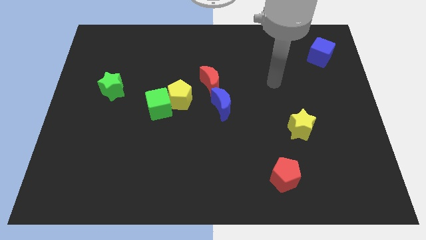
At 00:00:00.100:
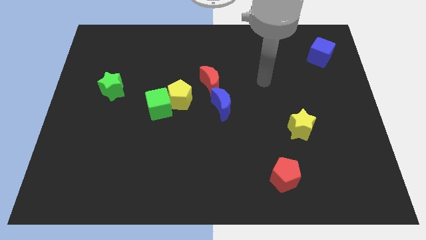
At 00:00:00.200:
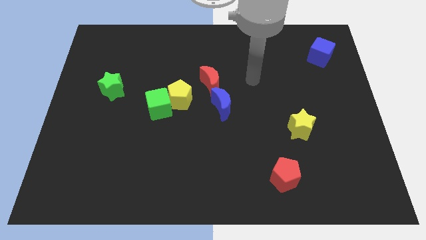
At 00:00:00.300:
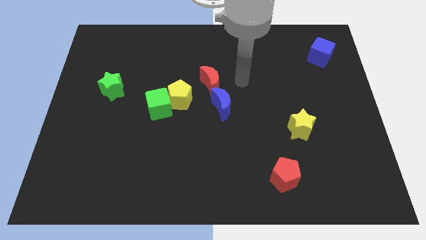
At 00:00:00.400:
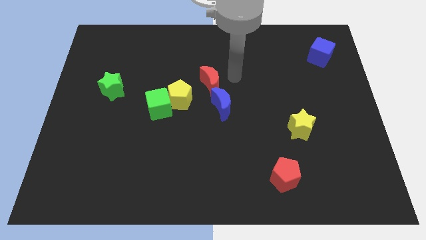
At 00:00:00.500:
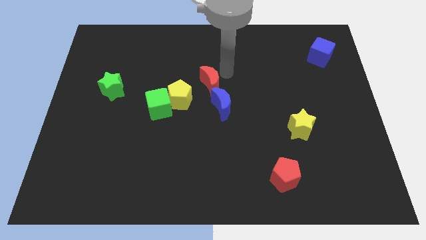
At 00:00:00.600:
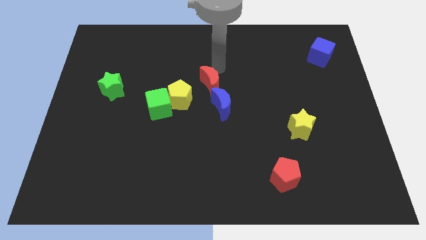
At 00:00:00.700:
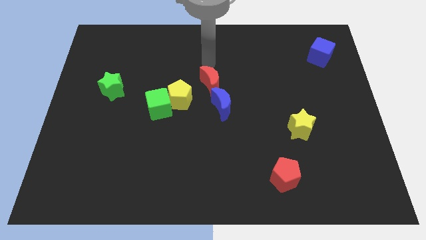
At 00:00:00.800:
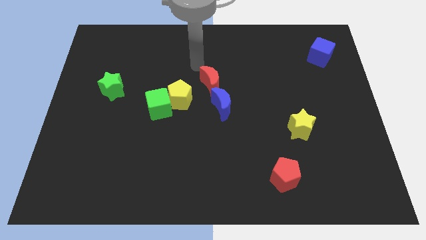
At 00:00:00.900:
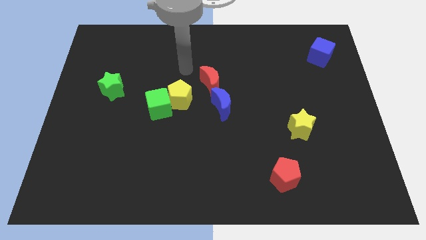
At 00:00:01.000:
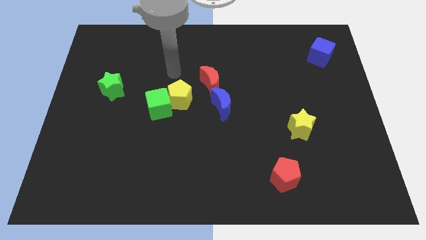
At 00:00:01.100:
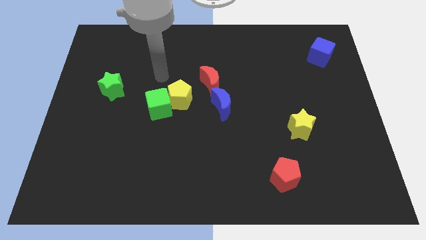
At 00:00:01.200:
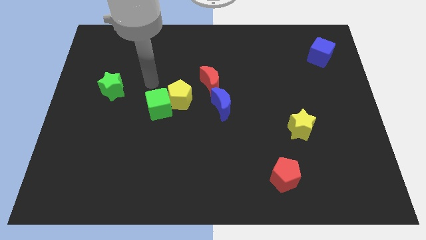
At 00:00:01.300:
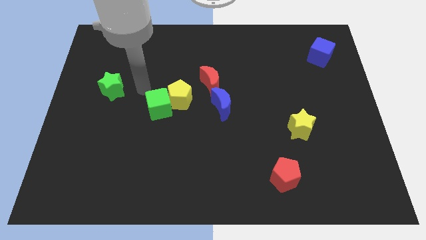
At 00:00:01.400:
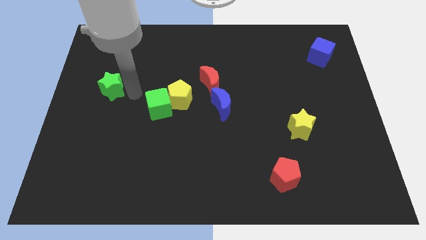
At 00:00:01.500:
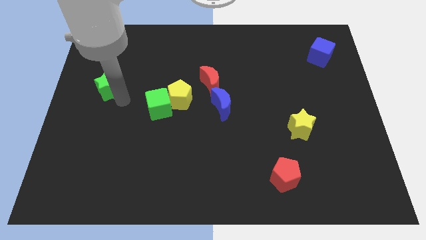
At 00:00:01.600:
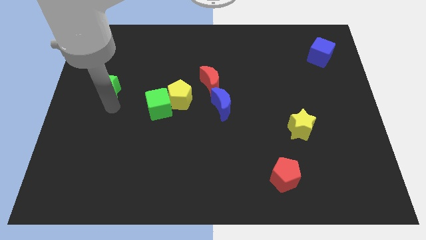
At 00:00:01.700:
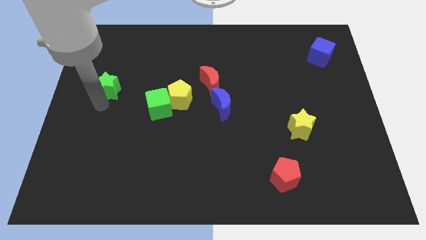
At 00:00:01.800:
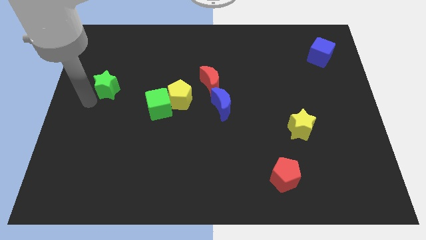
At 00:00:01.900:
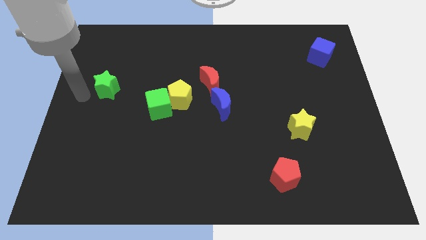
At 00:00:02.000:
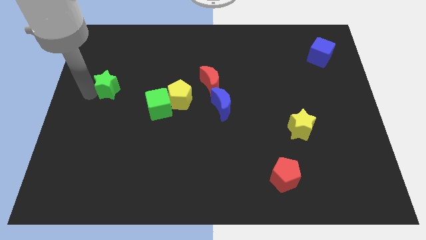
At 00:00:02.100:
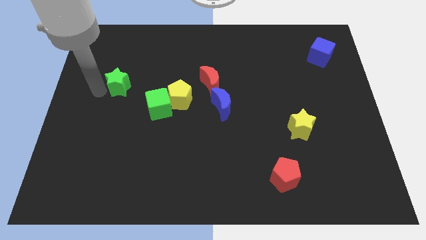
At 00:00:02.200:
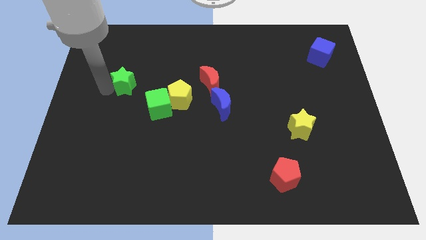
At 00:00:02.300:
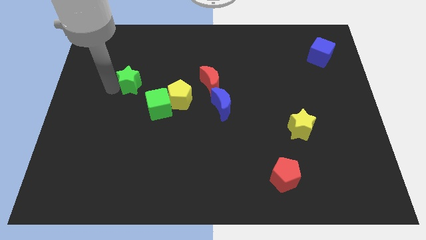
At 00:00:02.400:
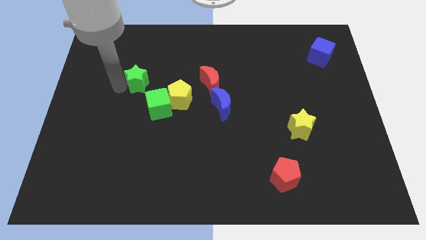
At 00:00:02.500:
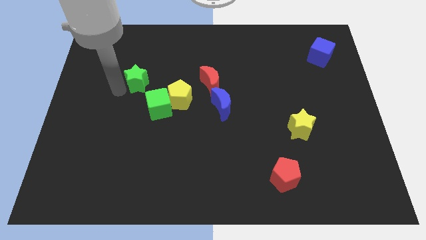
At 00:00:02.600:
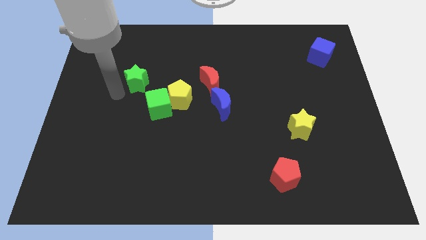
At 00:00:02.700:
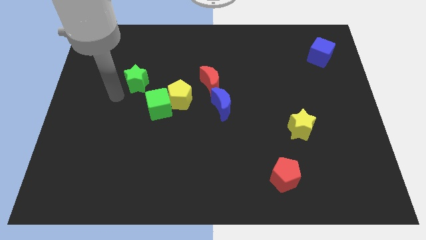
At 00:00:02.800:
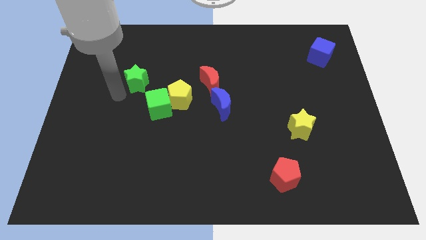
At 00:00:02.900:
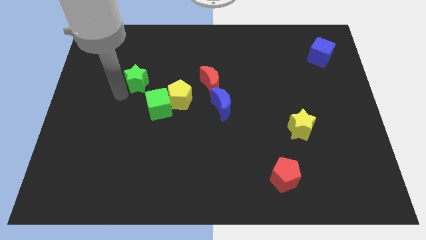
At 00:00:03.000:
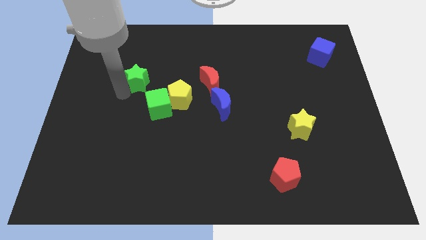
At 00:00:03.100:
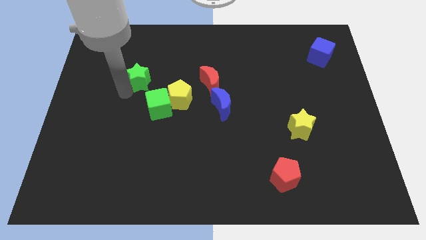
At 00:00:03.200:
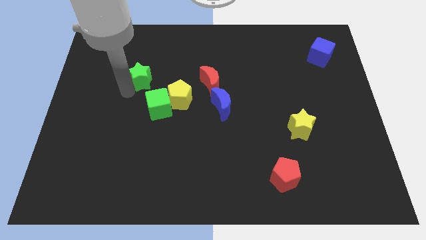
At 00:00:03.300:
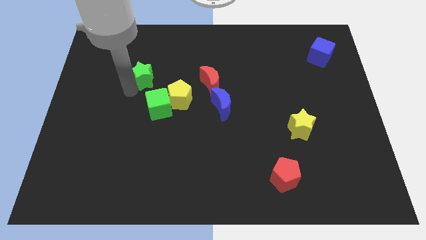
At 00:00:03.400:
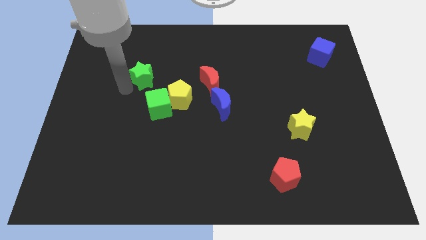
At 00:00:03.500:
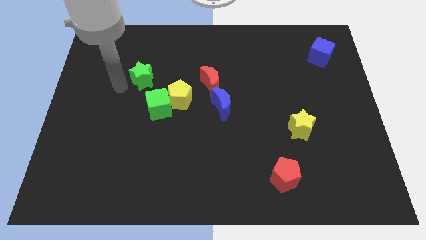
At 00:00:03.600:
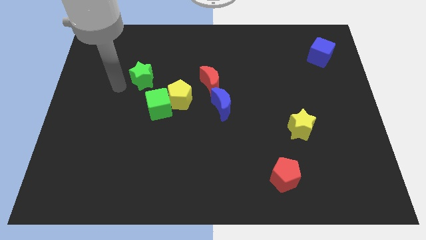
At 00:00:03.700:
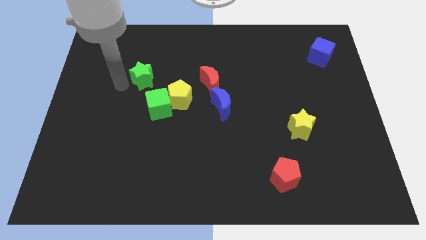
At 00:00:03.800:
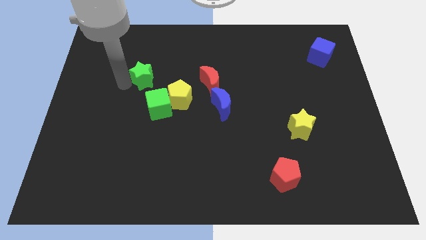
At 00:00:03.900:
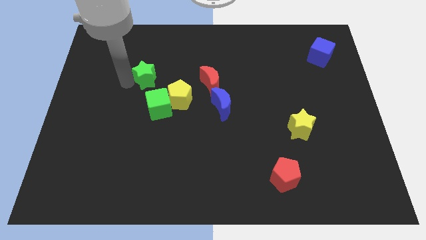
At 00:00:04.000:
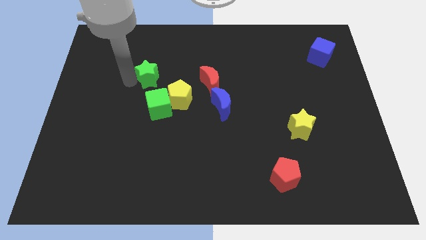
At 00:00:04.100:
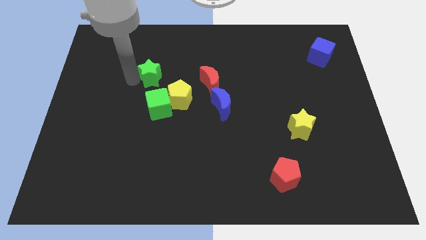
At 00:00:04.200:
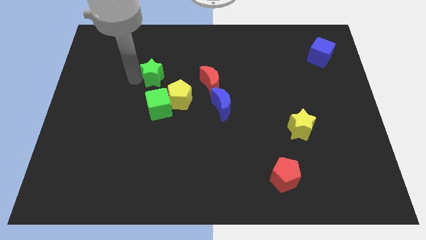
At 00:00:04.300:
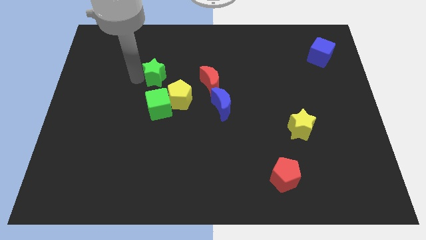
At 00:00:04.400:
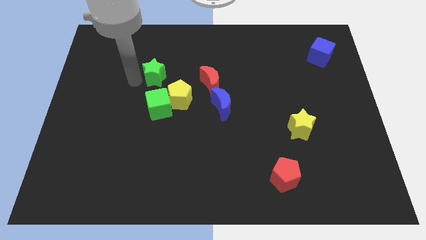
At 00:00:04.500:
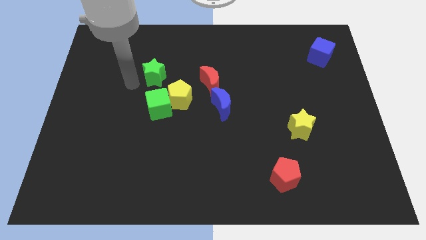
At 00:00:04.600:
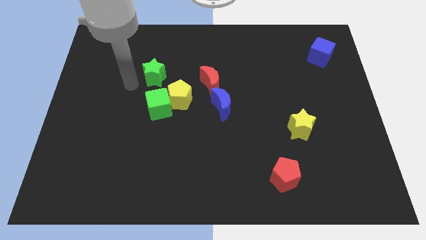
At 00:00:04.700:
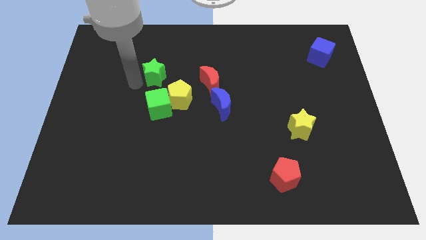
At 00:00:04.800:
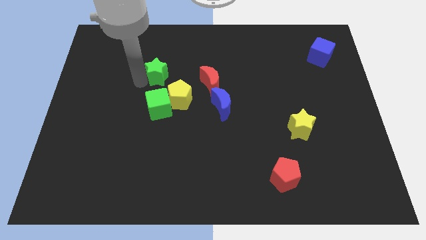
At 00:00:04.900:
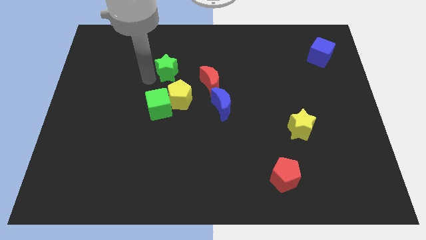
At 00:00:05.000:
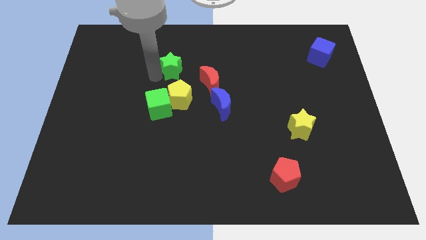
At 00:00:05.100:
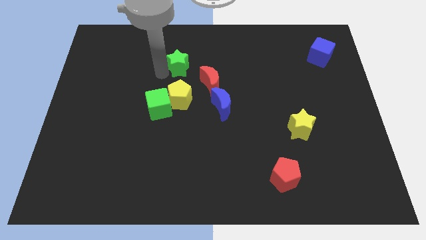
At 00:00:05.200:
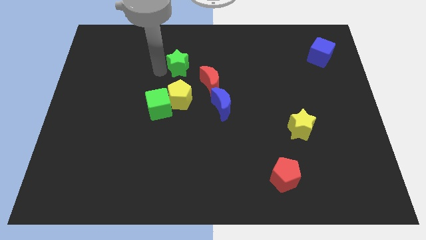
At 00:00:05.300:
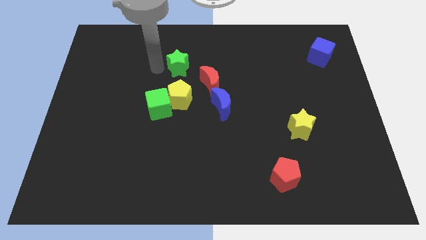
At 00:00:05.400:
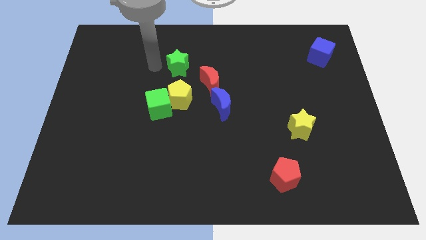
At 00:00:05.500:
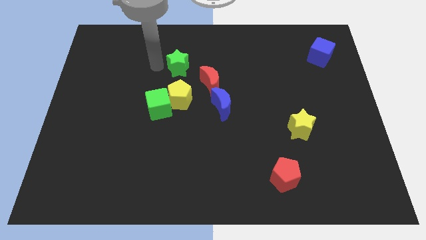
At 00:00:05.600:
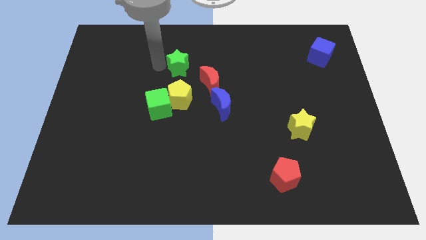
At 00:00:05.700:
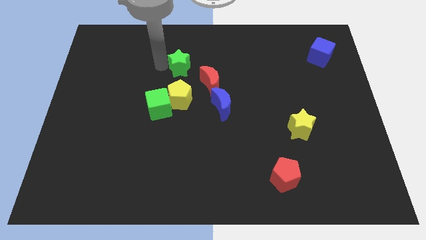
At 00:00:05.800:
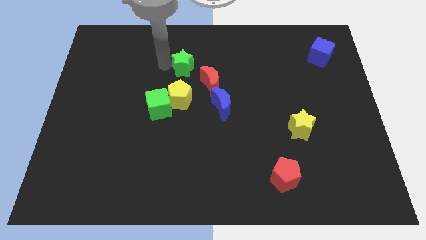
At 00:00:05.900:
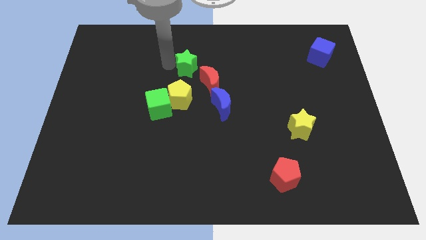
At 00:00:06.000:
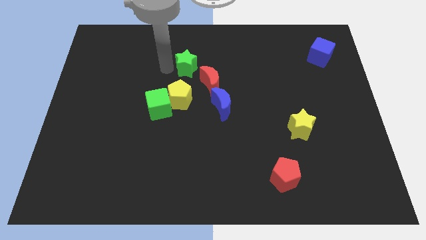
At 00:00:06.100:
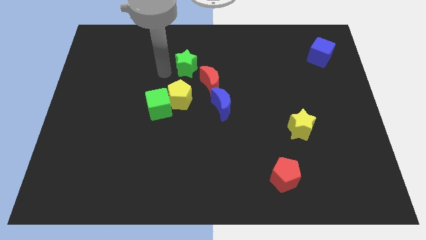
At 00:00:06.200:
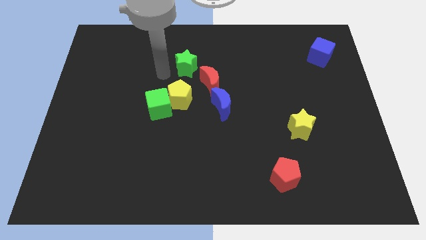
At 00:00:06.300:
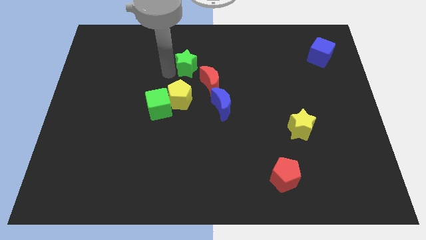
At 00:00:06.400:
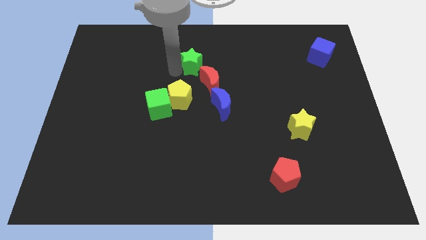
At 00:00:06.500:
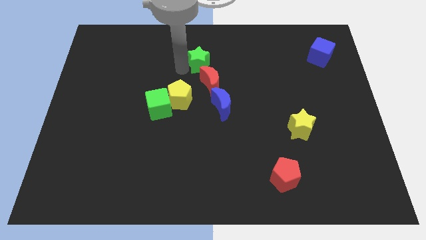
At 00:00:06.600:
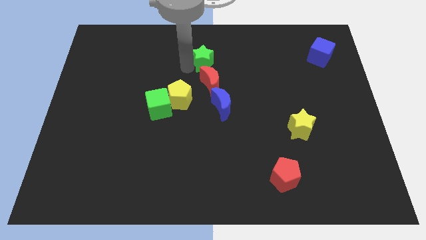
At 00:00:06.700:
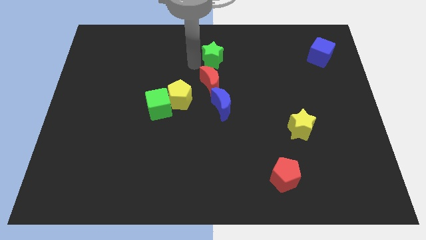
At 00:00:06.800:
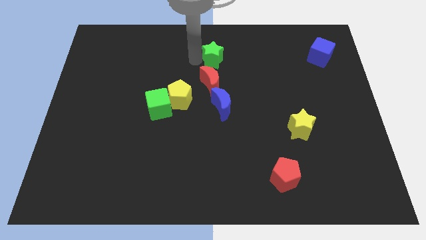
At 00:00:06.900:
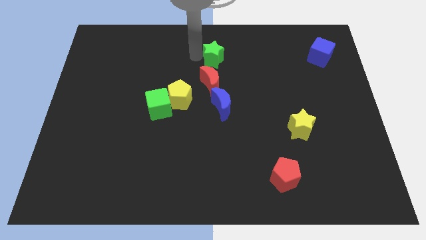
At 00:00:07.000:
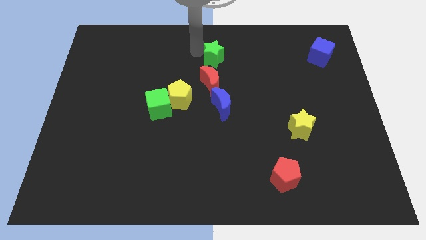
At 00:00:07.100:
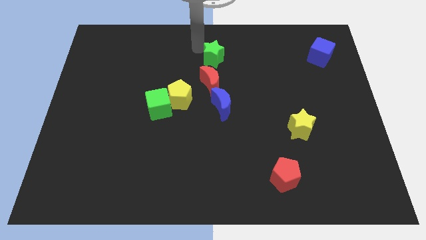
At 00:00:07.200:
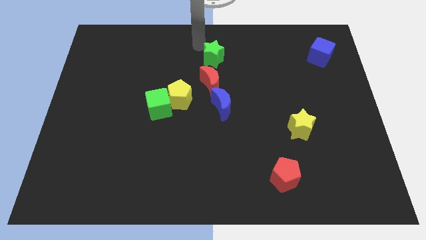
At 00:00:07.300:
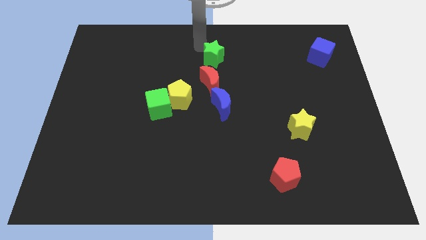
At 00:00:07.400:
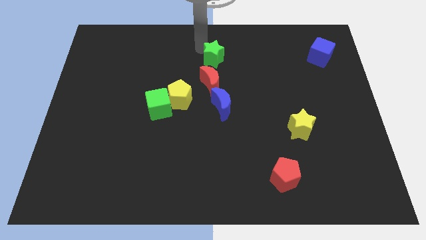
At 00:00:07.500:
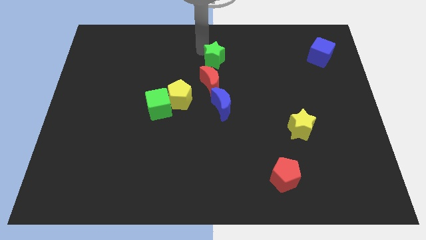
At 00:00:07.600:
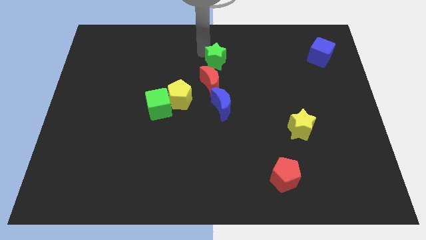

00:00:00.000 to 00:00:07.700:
push the green star right
